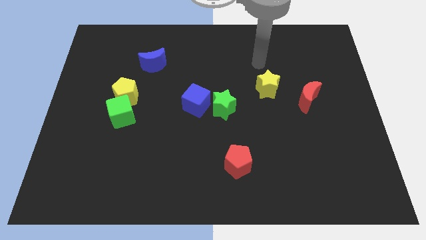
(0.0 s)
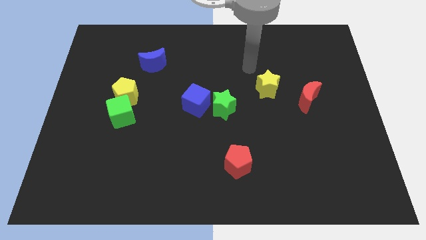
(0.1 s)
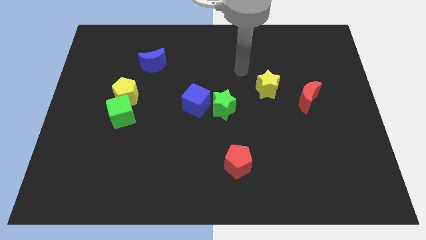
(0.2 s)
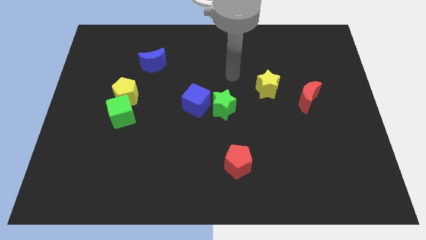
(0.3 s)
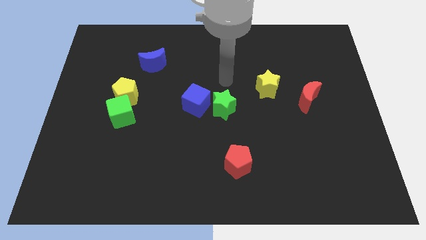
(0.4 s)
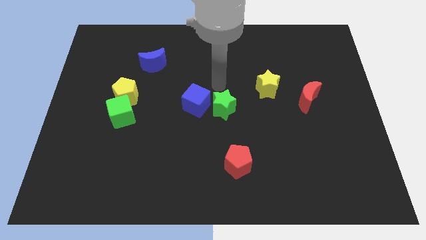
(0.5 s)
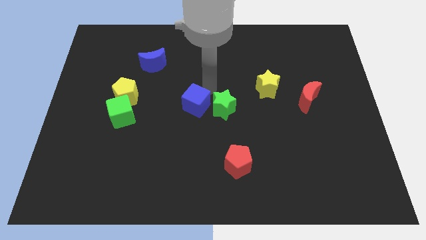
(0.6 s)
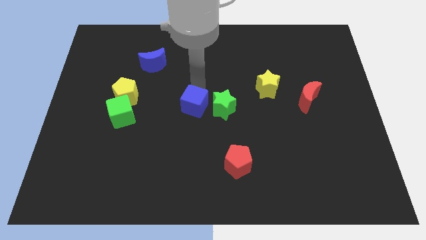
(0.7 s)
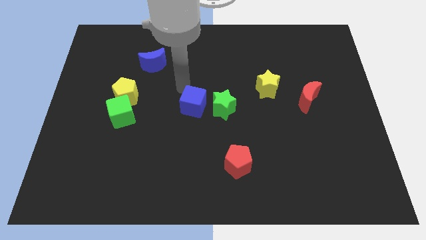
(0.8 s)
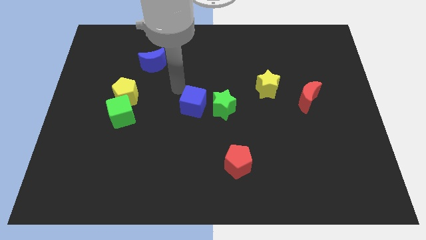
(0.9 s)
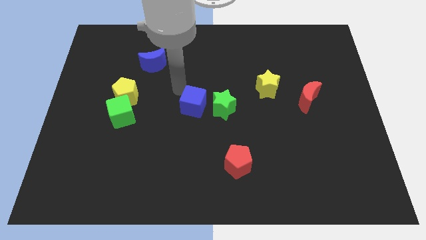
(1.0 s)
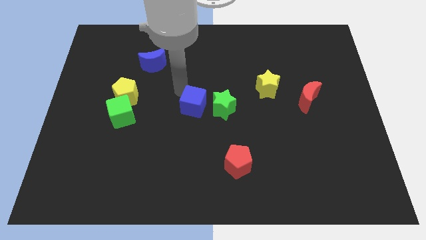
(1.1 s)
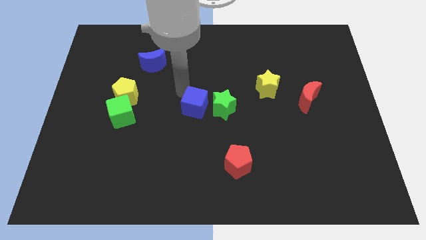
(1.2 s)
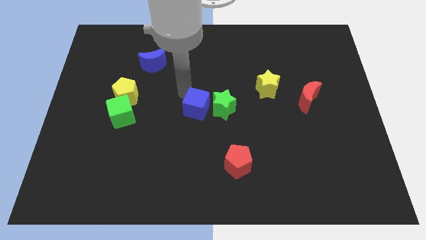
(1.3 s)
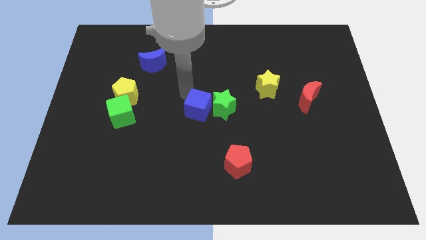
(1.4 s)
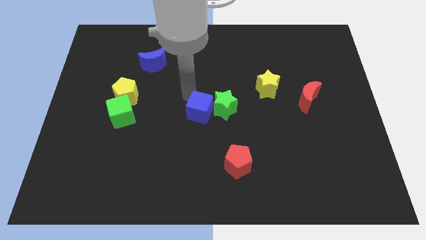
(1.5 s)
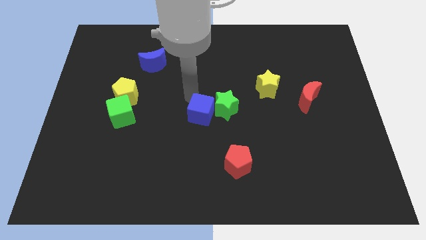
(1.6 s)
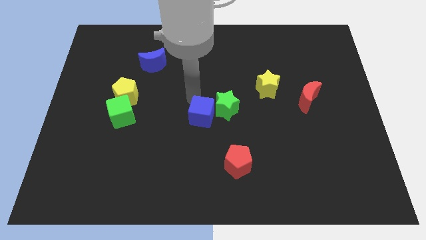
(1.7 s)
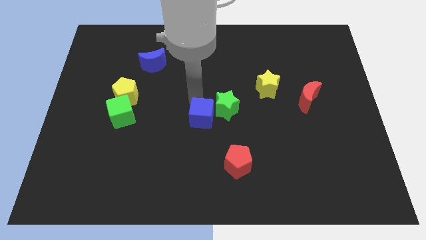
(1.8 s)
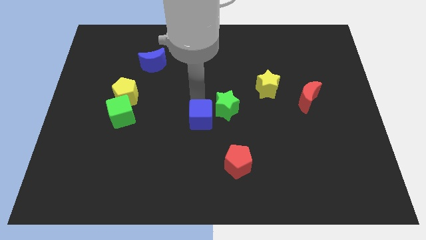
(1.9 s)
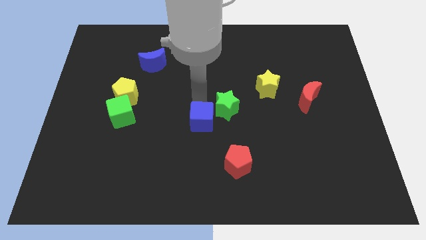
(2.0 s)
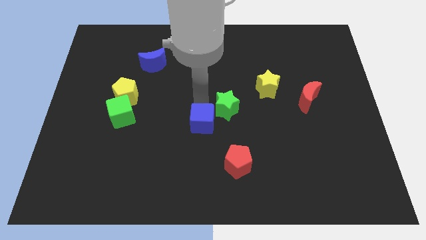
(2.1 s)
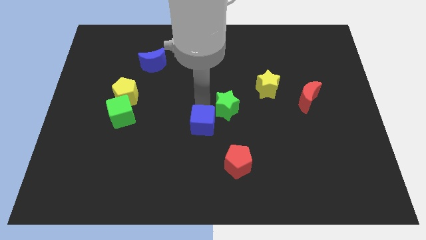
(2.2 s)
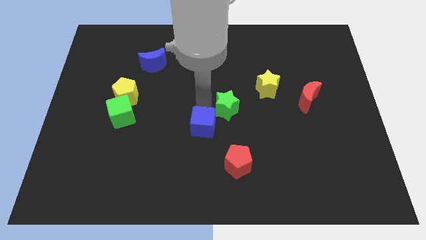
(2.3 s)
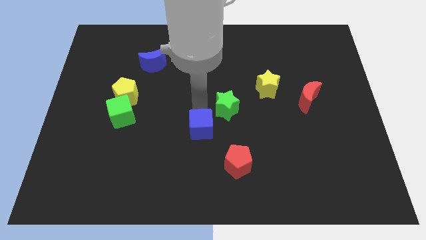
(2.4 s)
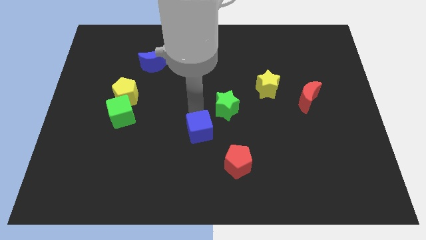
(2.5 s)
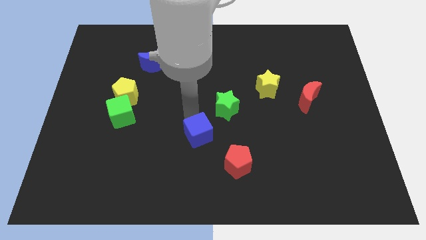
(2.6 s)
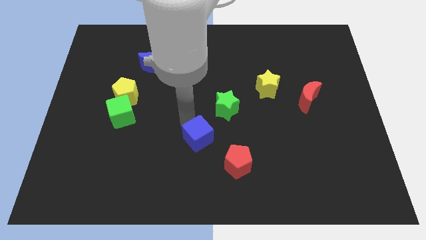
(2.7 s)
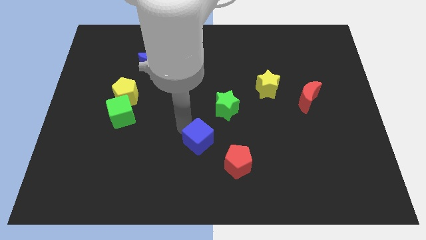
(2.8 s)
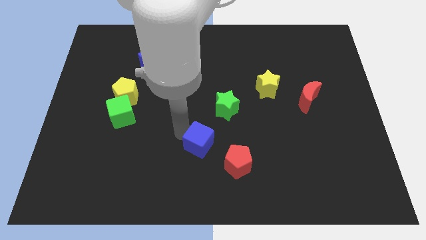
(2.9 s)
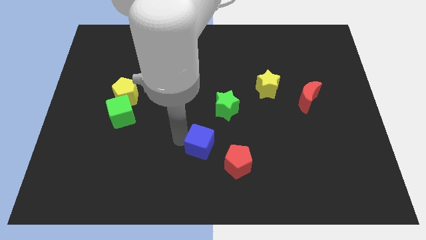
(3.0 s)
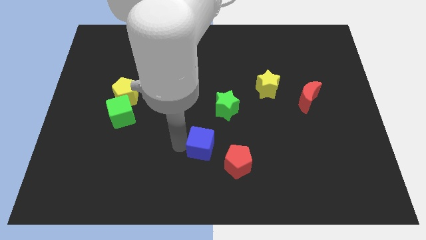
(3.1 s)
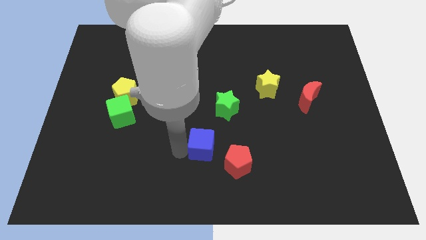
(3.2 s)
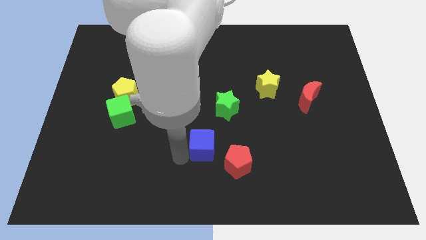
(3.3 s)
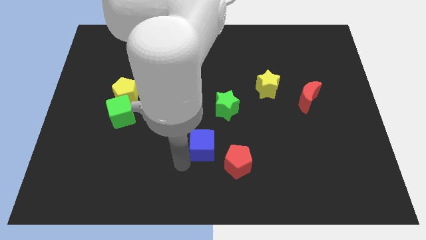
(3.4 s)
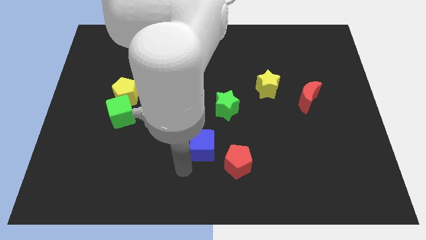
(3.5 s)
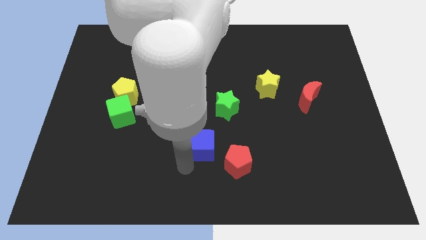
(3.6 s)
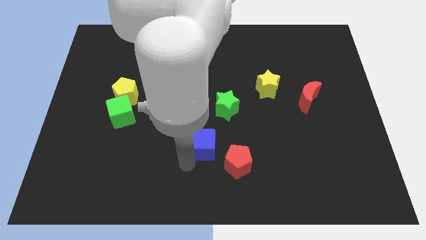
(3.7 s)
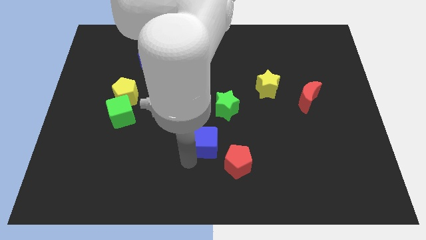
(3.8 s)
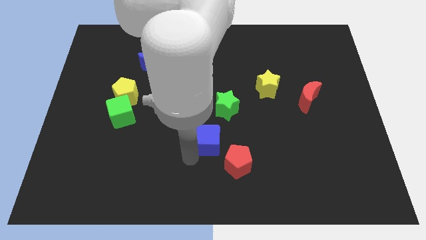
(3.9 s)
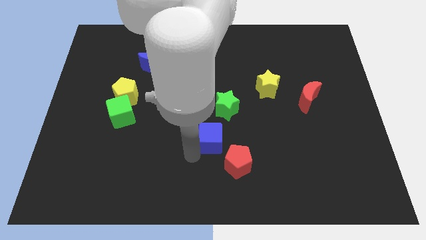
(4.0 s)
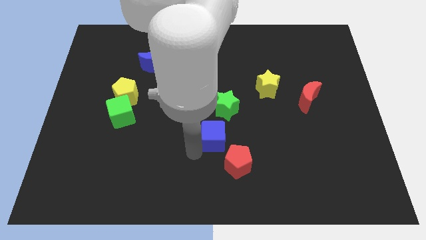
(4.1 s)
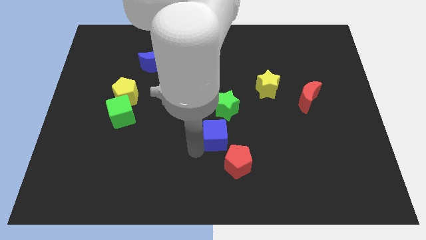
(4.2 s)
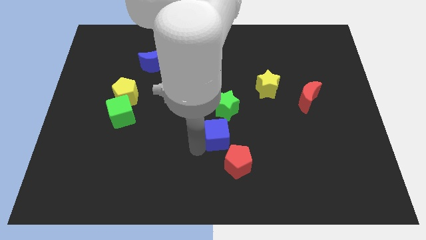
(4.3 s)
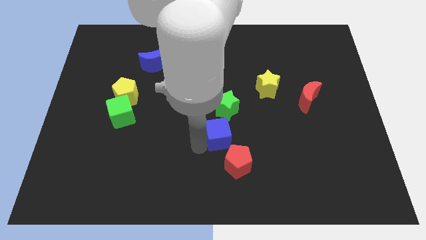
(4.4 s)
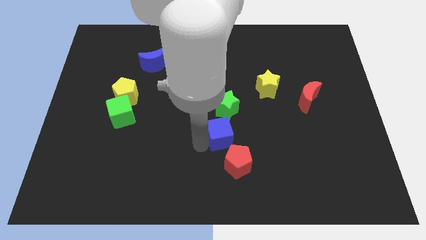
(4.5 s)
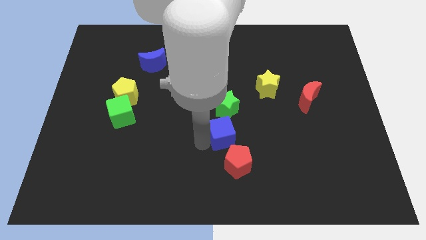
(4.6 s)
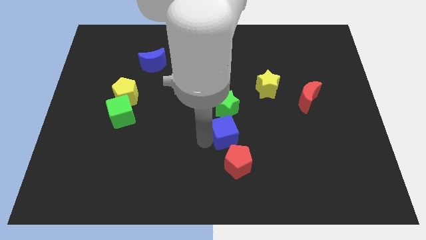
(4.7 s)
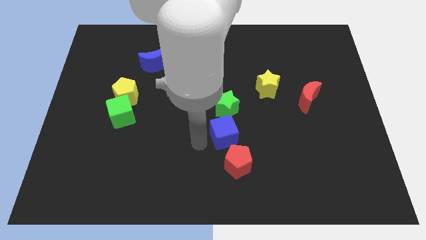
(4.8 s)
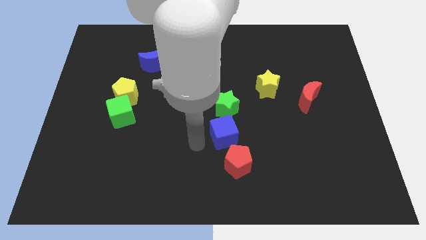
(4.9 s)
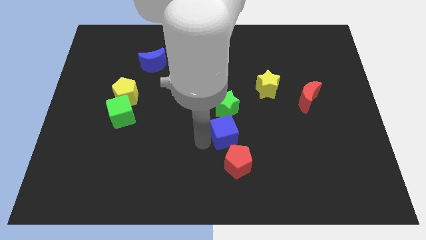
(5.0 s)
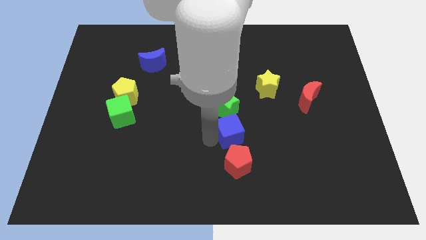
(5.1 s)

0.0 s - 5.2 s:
push the blue cube to the bottom right side of the green star
